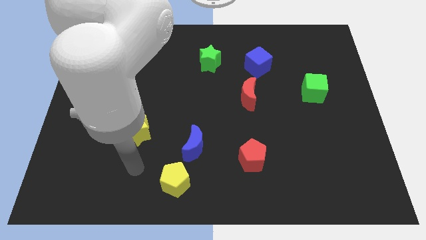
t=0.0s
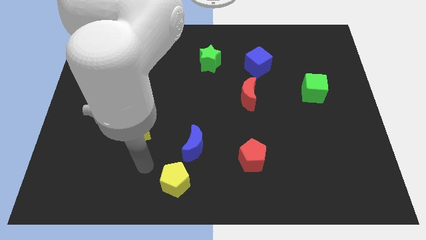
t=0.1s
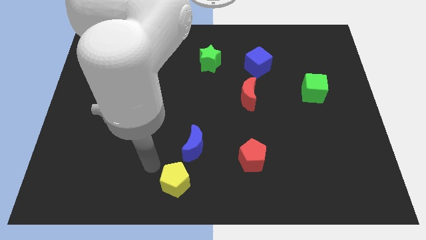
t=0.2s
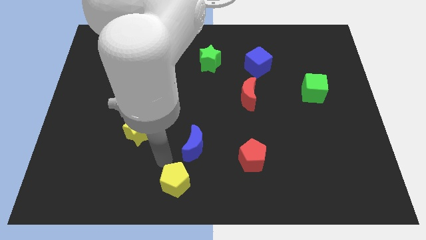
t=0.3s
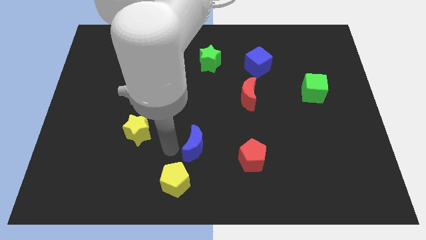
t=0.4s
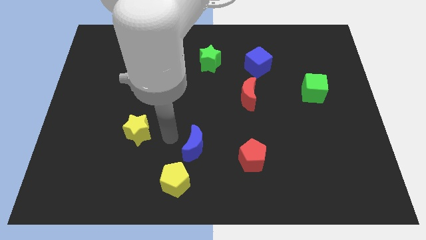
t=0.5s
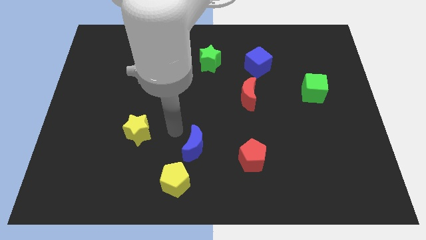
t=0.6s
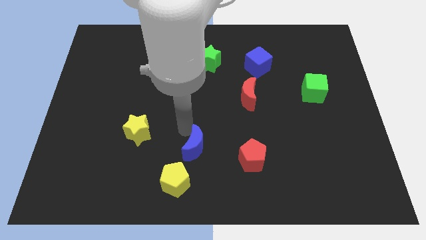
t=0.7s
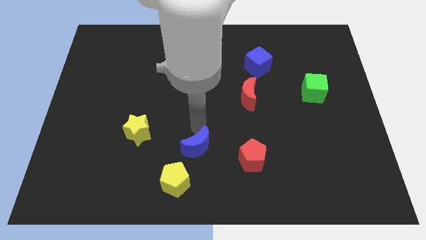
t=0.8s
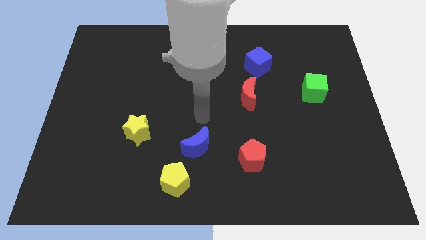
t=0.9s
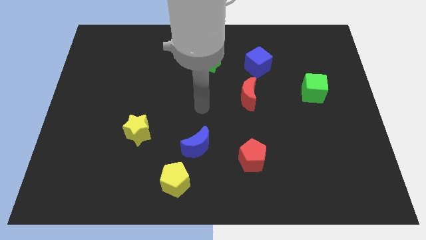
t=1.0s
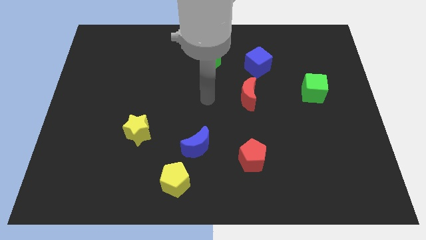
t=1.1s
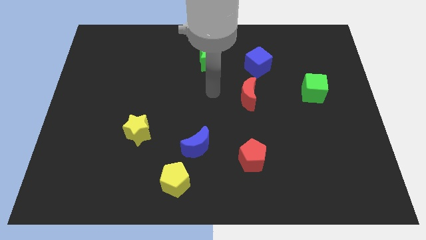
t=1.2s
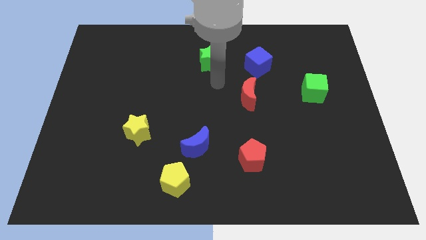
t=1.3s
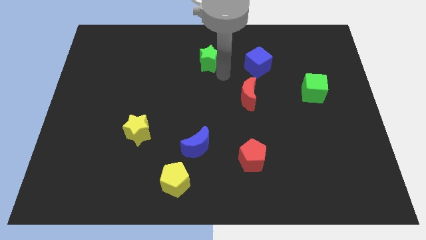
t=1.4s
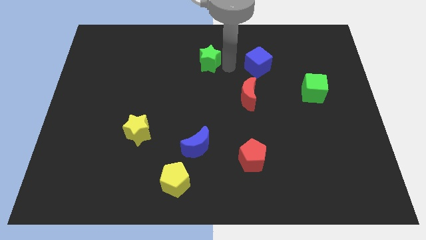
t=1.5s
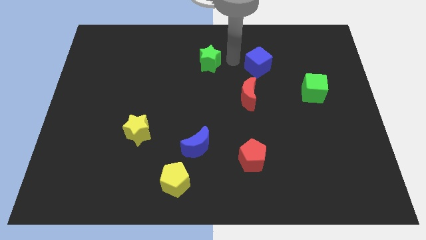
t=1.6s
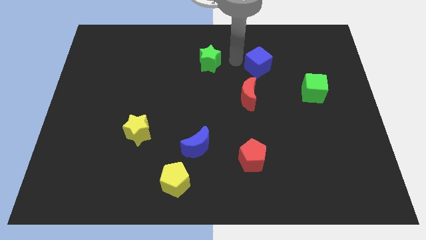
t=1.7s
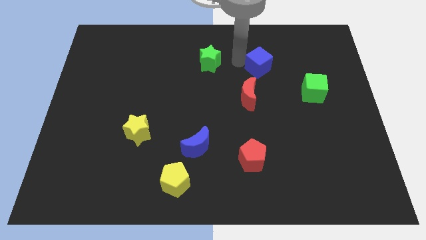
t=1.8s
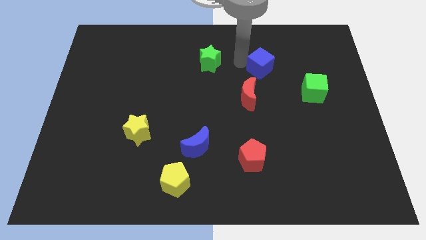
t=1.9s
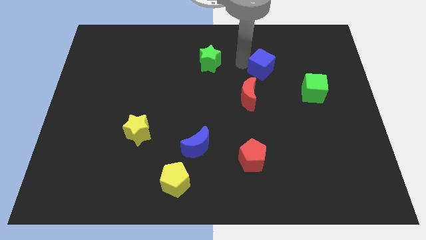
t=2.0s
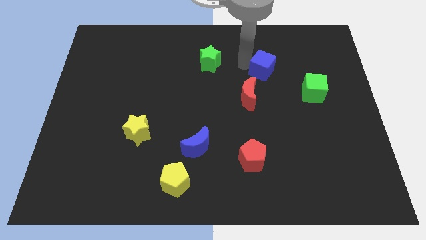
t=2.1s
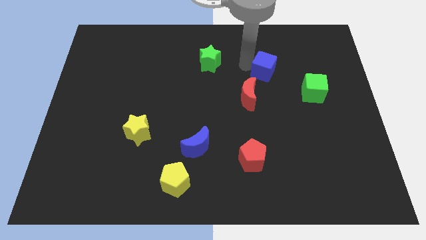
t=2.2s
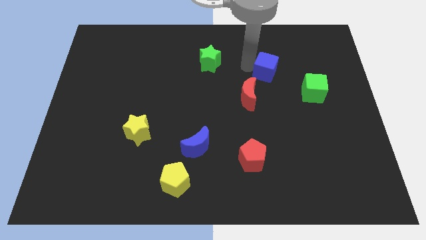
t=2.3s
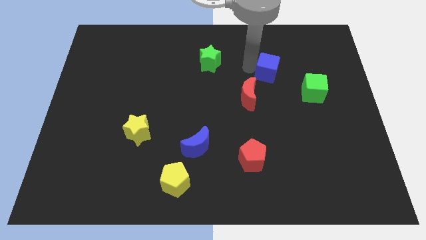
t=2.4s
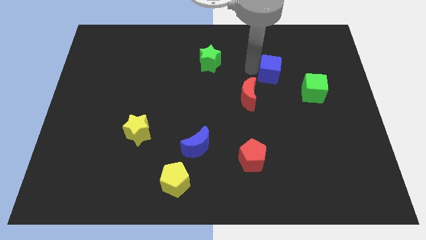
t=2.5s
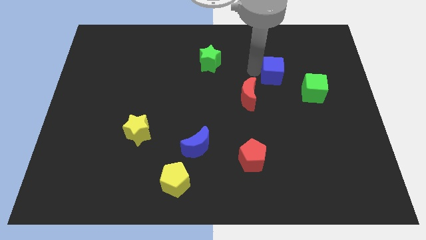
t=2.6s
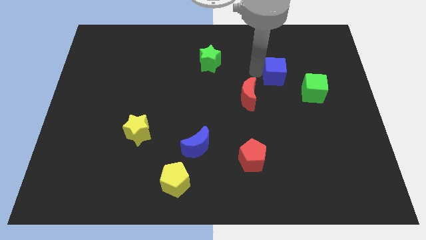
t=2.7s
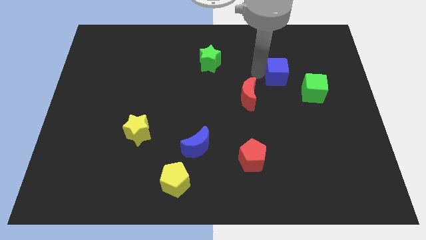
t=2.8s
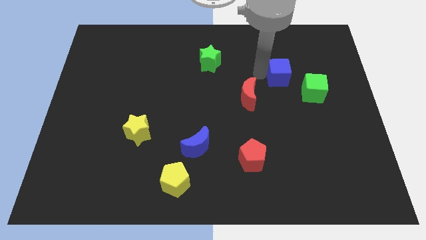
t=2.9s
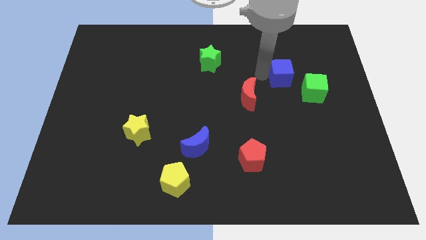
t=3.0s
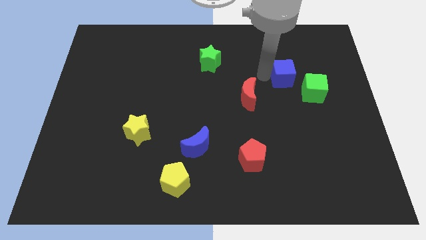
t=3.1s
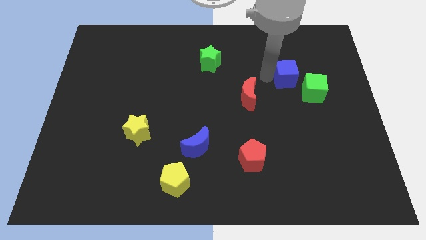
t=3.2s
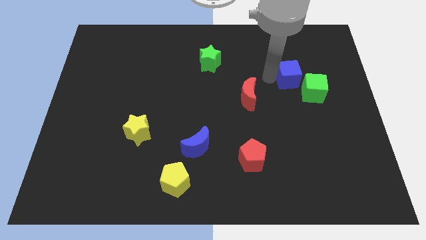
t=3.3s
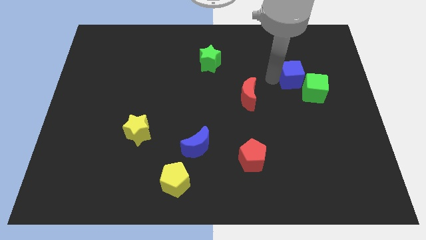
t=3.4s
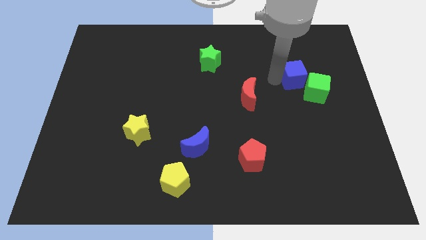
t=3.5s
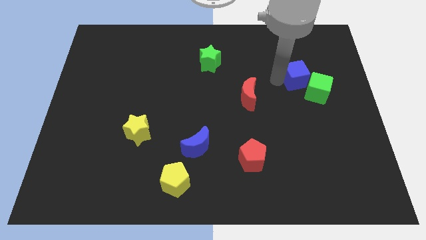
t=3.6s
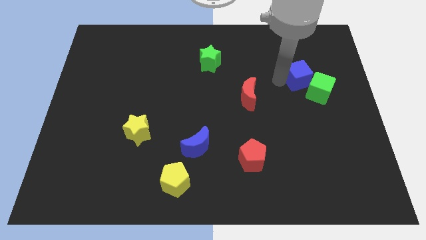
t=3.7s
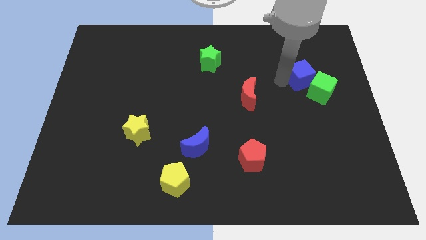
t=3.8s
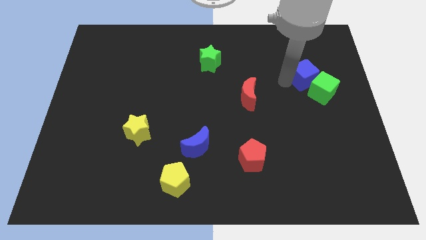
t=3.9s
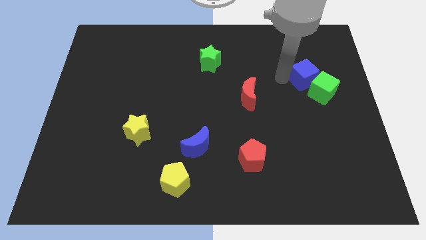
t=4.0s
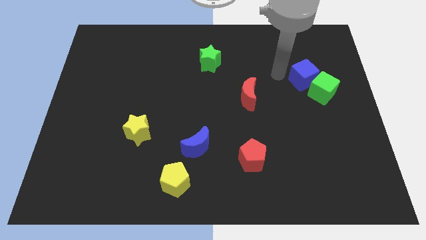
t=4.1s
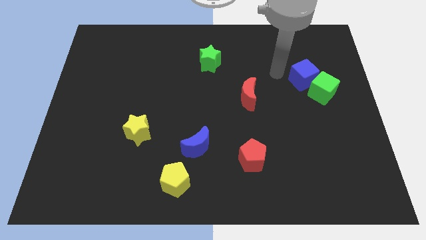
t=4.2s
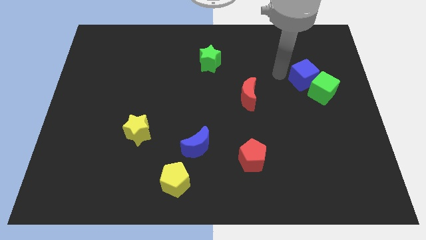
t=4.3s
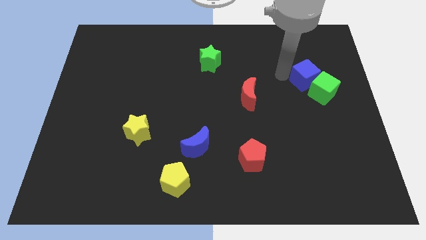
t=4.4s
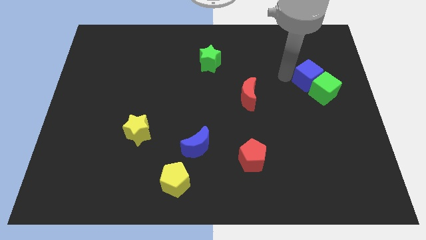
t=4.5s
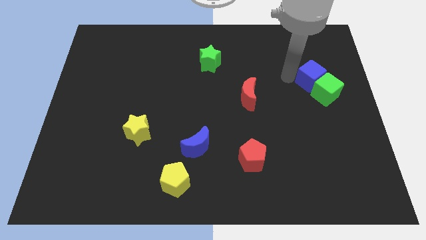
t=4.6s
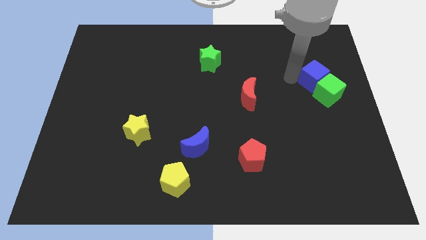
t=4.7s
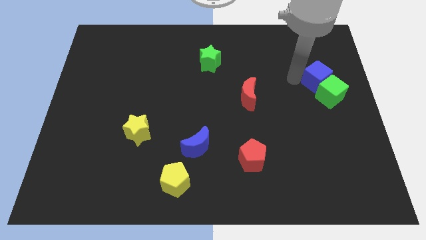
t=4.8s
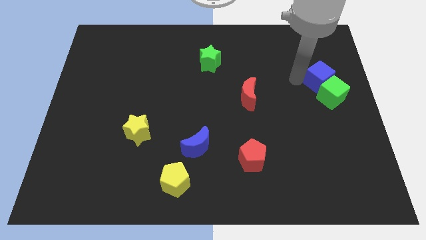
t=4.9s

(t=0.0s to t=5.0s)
slide the blue cube to the center right

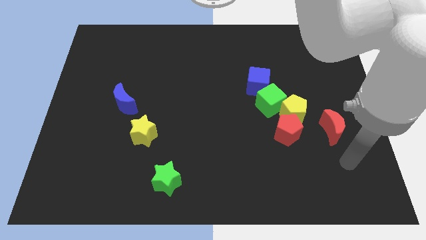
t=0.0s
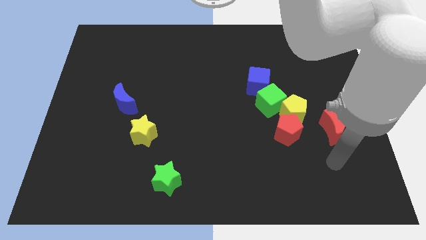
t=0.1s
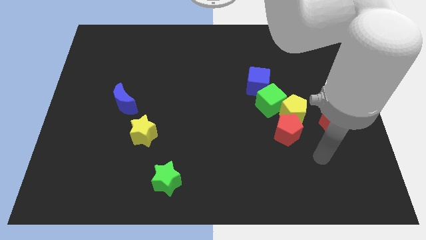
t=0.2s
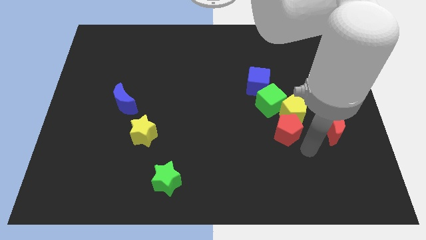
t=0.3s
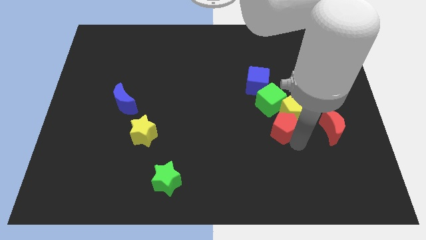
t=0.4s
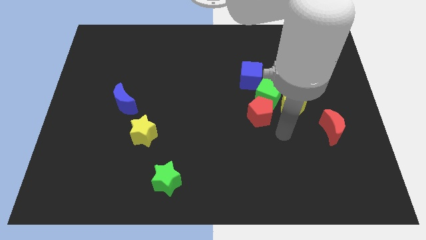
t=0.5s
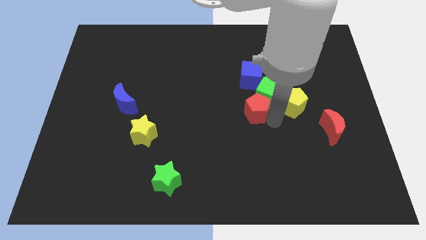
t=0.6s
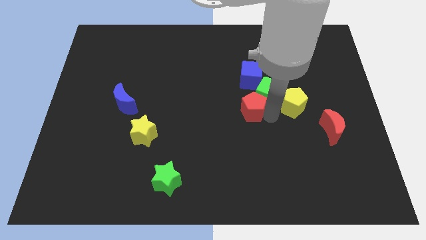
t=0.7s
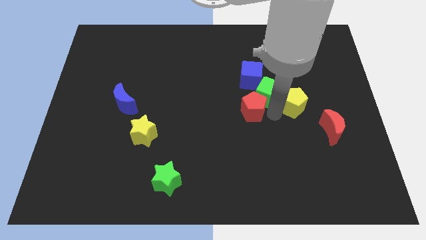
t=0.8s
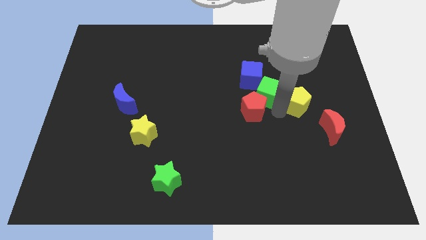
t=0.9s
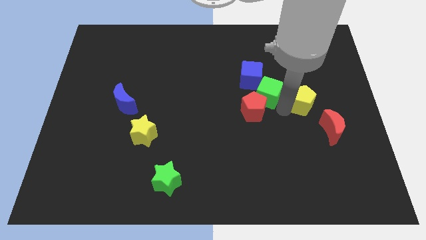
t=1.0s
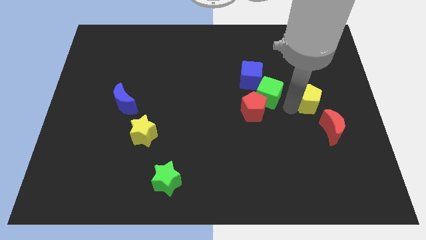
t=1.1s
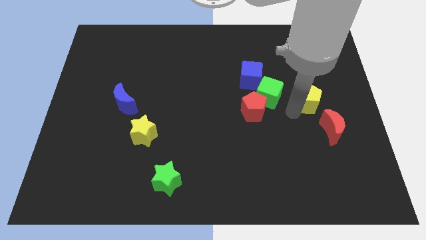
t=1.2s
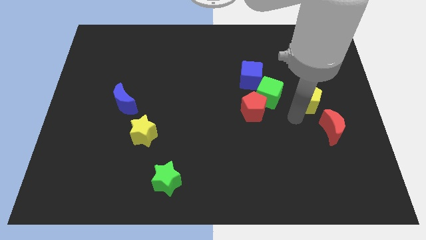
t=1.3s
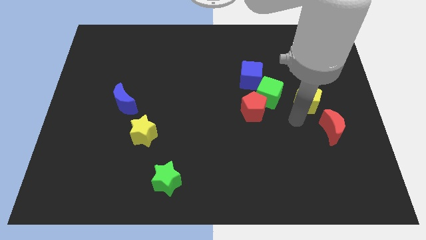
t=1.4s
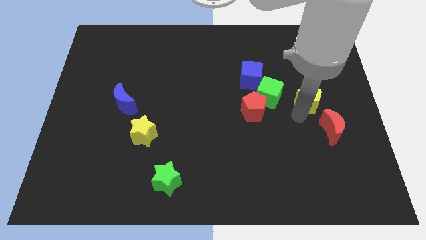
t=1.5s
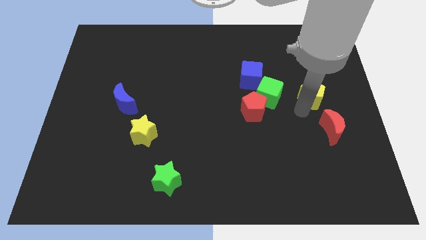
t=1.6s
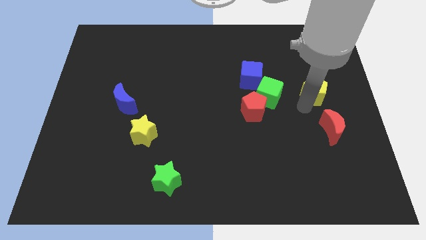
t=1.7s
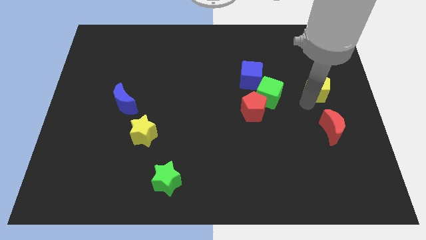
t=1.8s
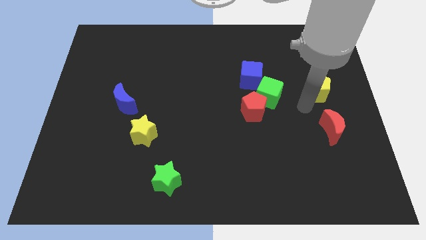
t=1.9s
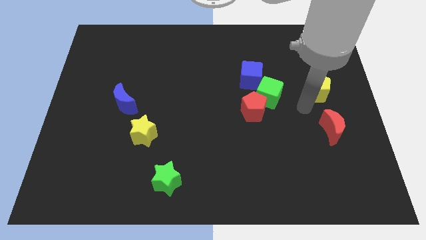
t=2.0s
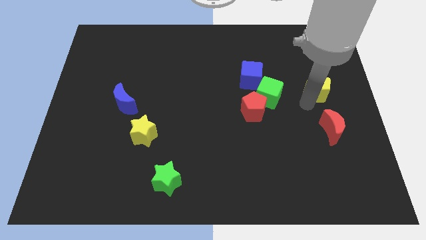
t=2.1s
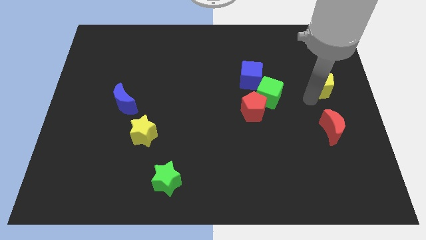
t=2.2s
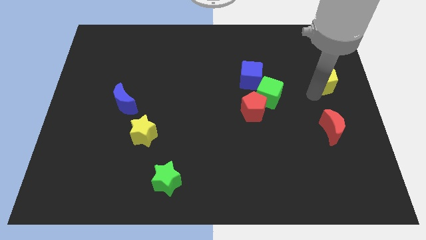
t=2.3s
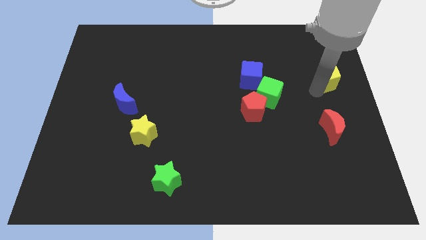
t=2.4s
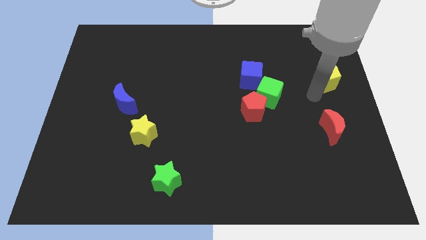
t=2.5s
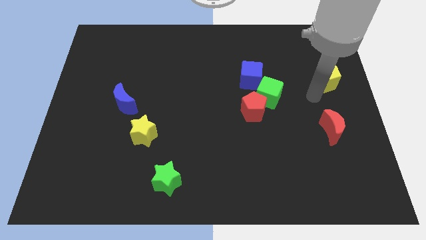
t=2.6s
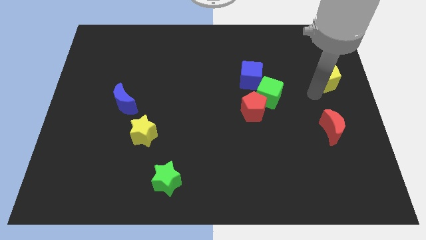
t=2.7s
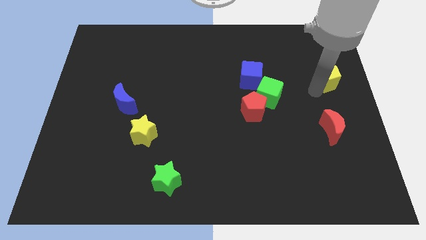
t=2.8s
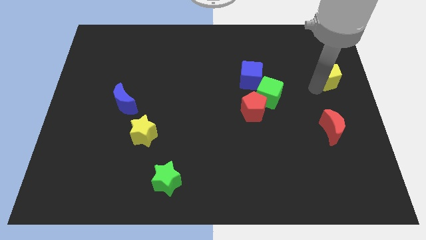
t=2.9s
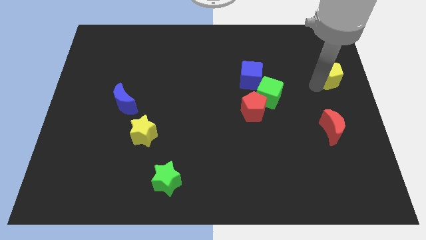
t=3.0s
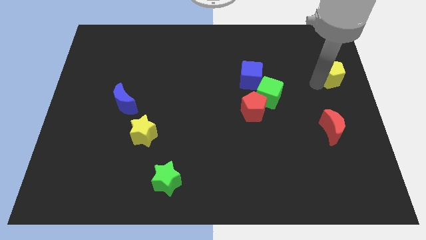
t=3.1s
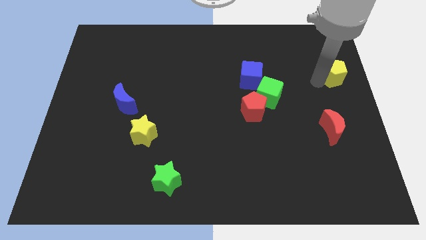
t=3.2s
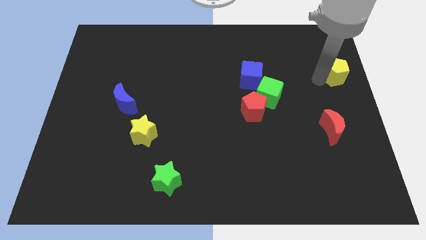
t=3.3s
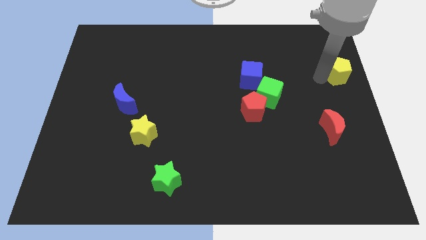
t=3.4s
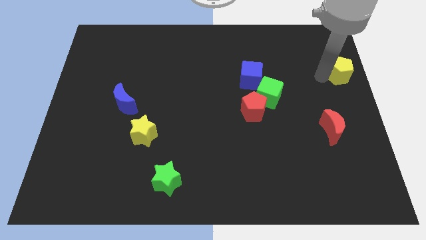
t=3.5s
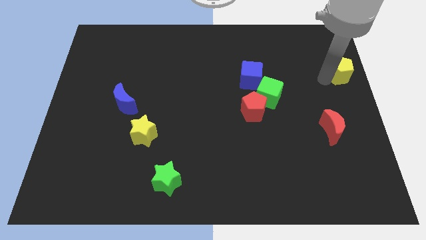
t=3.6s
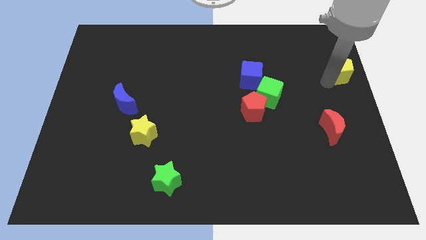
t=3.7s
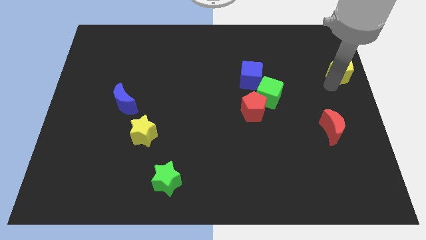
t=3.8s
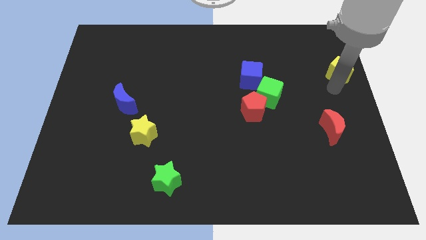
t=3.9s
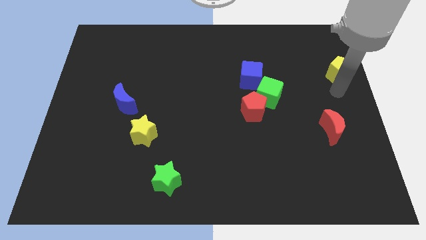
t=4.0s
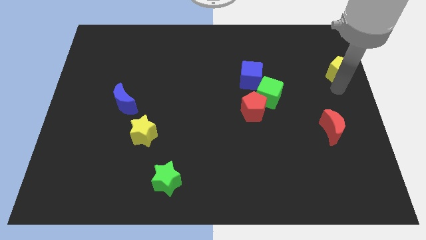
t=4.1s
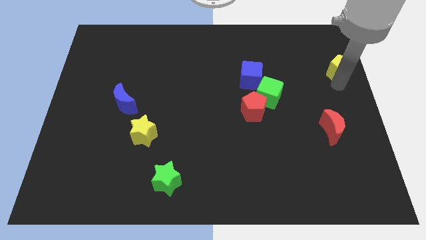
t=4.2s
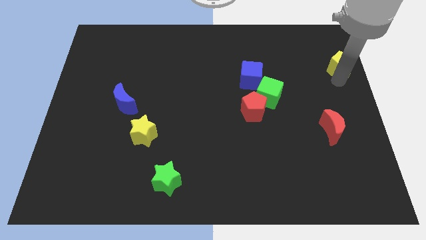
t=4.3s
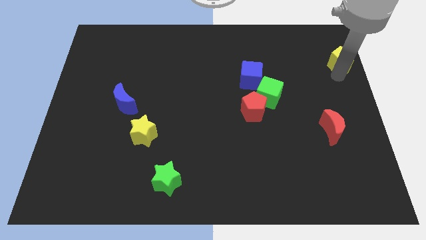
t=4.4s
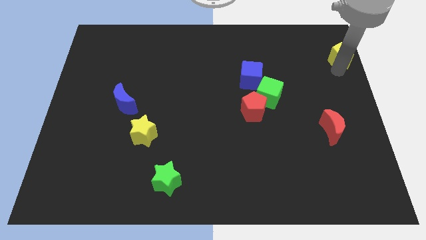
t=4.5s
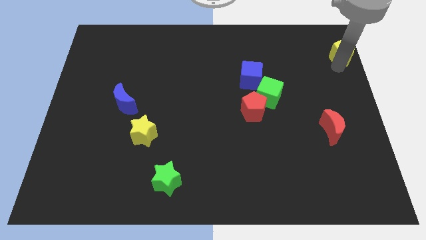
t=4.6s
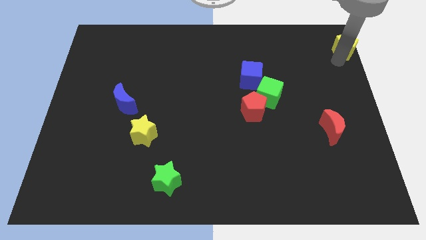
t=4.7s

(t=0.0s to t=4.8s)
move the yellow pentagon to the upper right corner
